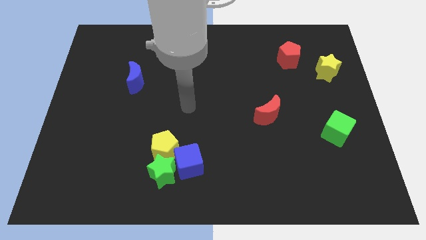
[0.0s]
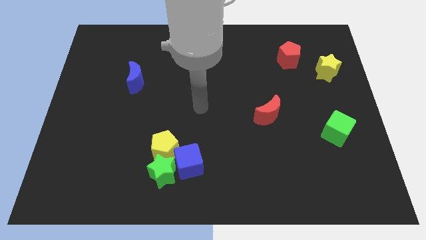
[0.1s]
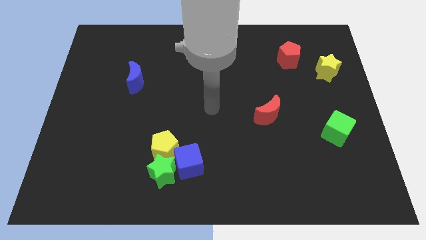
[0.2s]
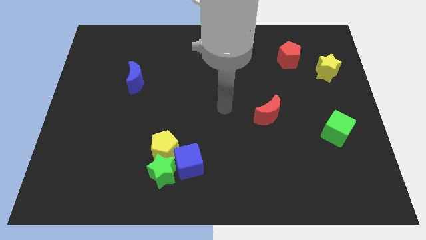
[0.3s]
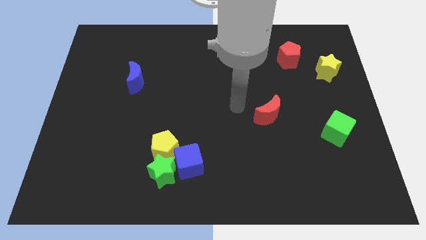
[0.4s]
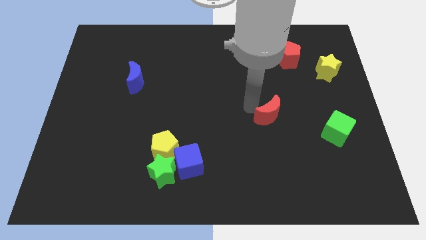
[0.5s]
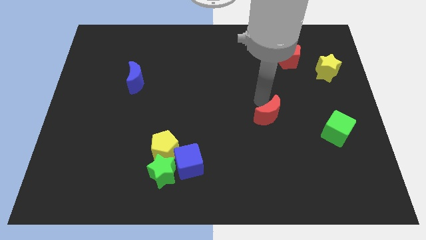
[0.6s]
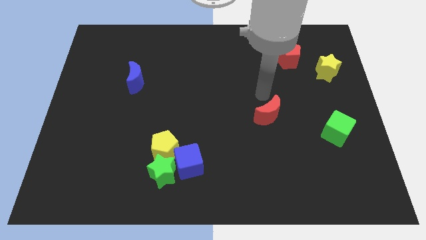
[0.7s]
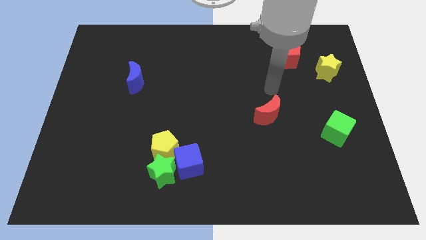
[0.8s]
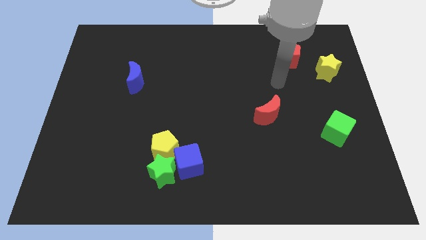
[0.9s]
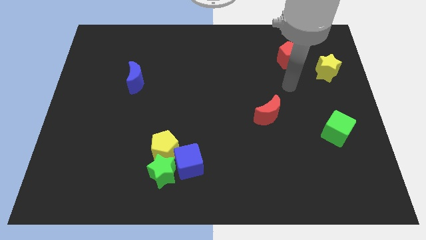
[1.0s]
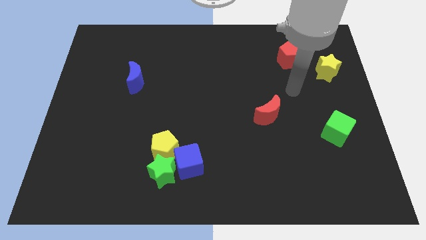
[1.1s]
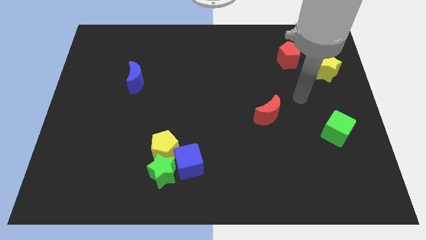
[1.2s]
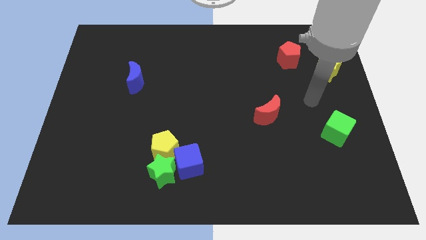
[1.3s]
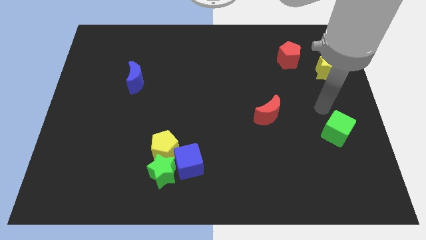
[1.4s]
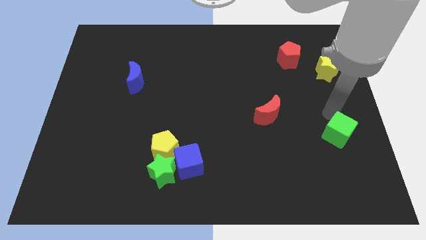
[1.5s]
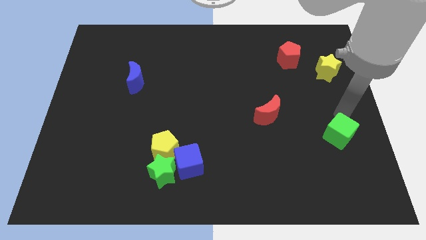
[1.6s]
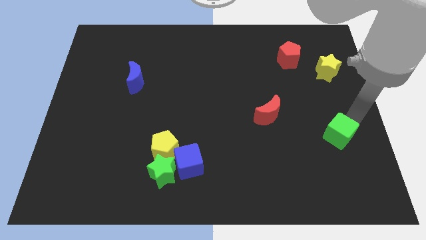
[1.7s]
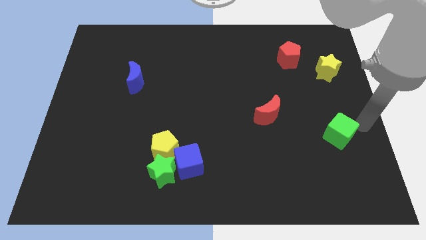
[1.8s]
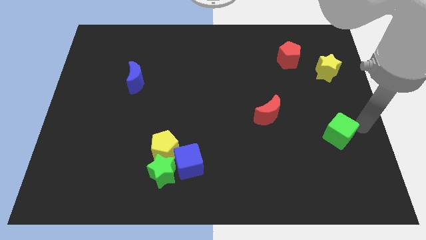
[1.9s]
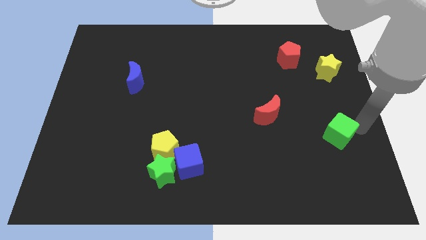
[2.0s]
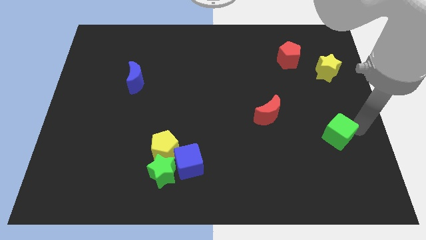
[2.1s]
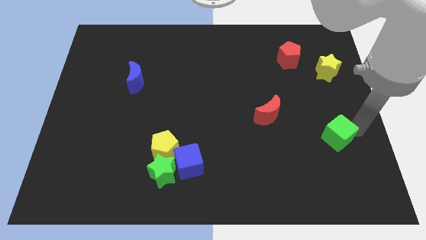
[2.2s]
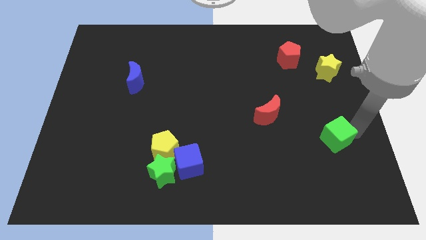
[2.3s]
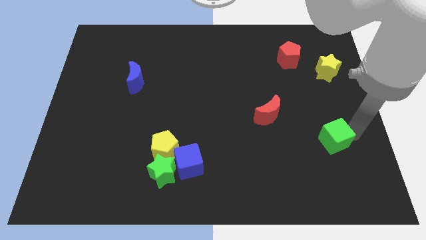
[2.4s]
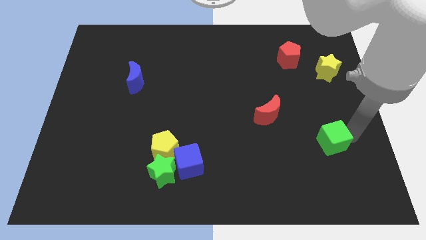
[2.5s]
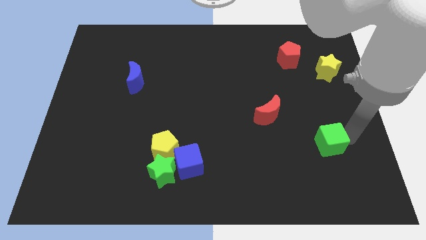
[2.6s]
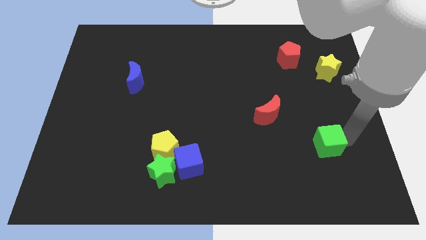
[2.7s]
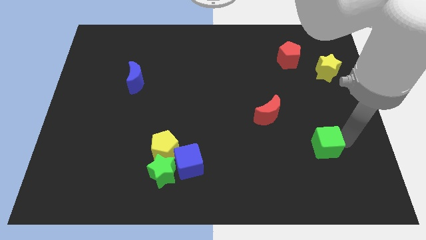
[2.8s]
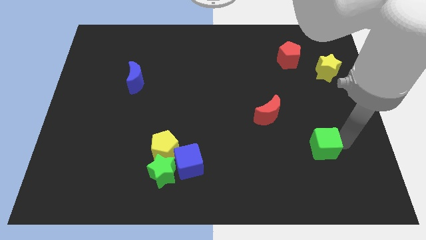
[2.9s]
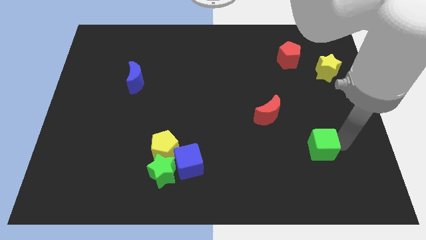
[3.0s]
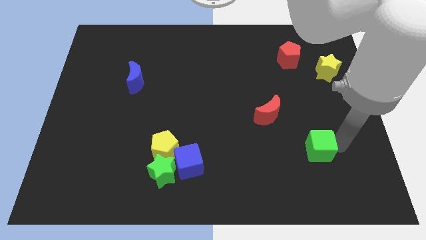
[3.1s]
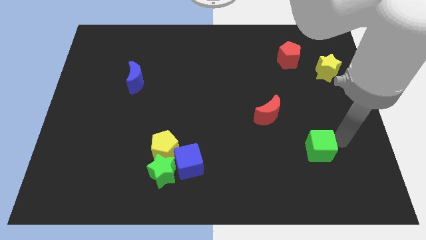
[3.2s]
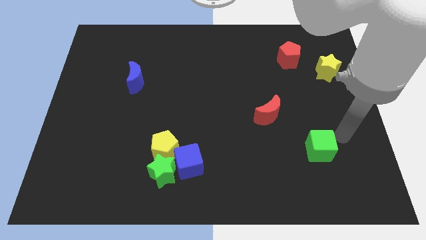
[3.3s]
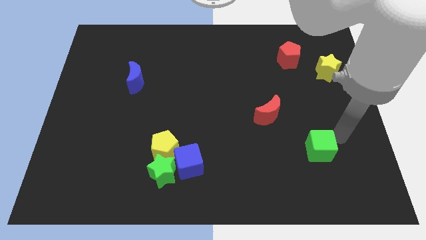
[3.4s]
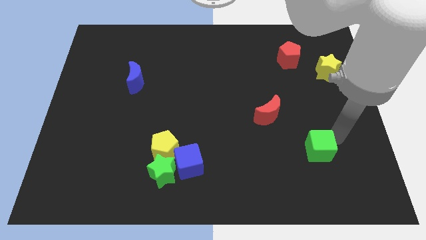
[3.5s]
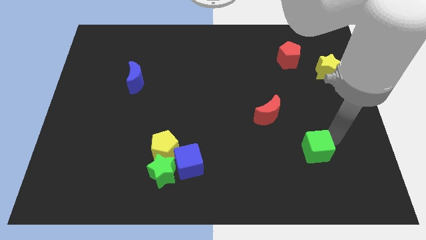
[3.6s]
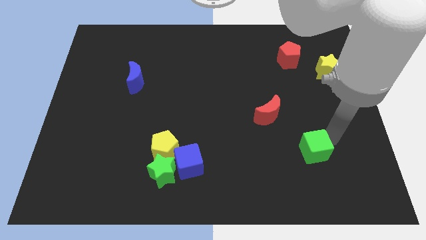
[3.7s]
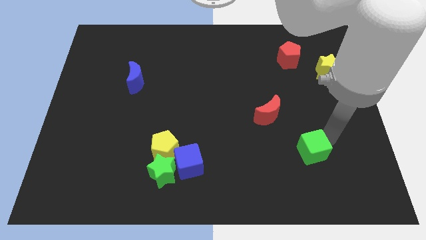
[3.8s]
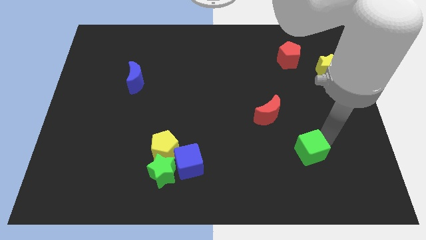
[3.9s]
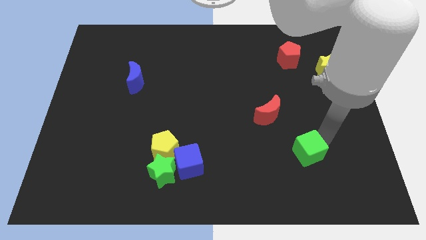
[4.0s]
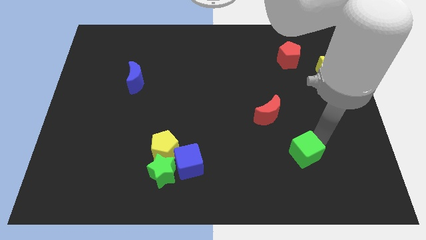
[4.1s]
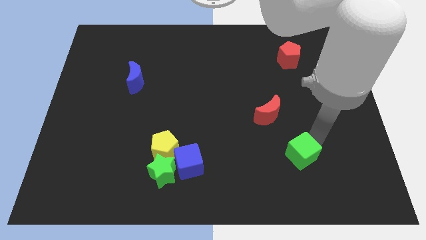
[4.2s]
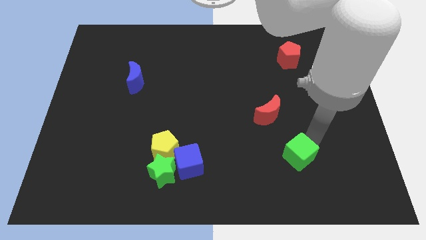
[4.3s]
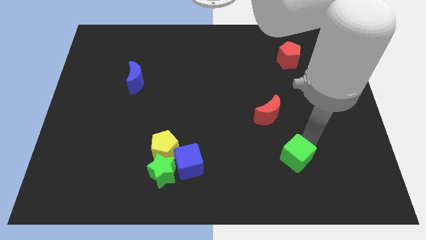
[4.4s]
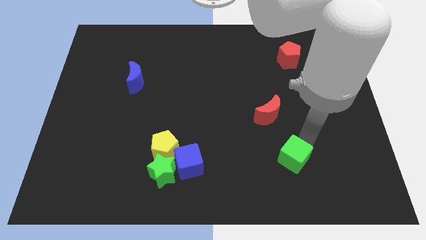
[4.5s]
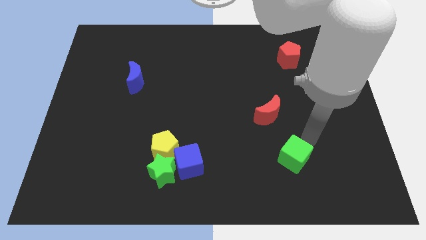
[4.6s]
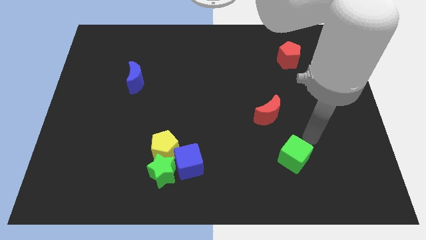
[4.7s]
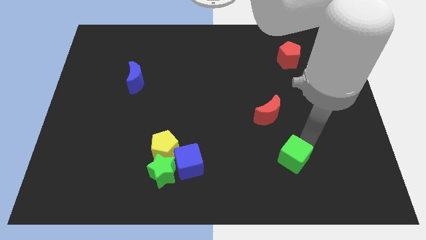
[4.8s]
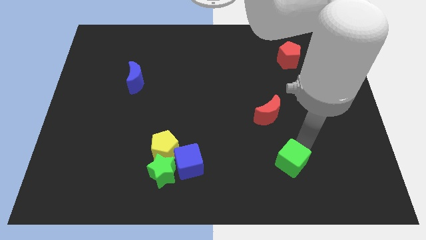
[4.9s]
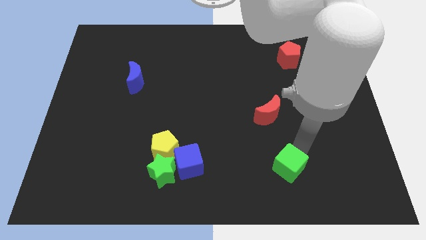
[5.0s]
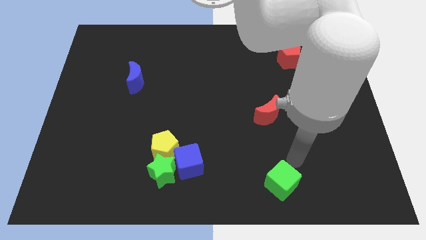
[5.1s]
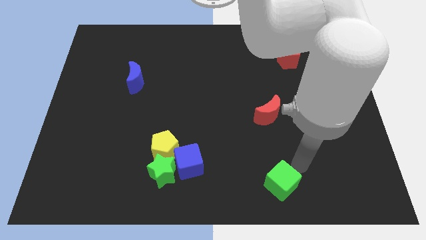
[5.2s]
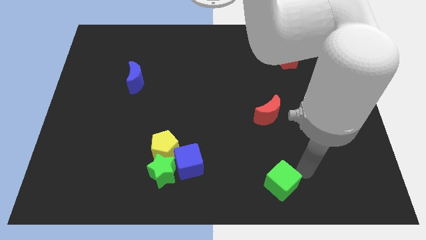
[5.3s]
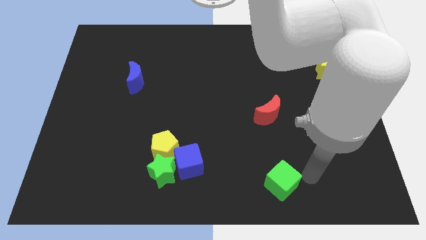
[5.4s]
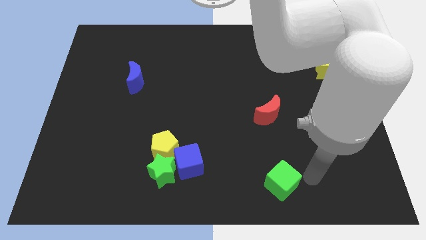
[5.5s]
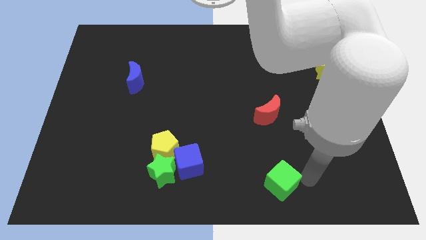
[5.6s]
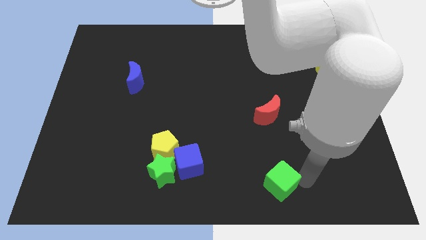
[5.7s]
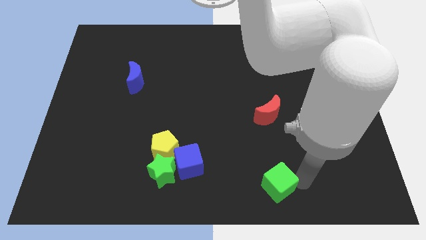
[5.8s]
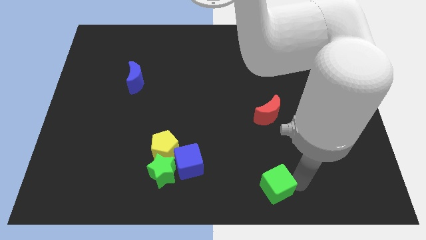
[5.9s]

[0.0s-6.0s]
put the green cube to the bottom
